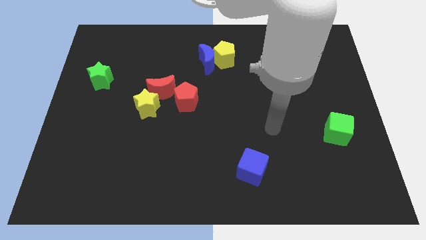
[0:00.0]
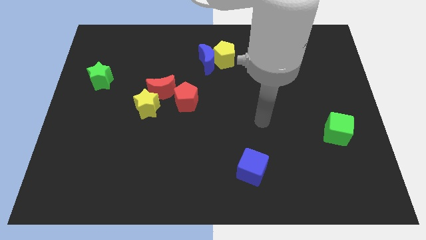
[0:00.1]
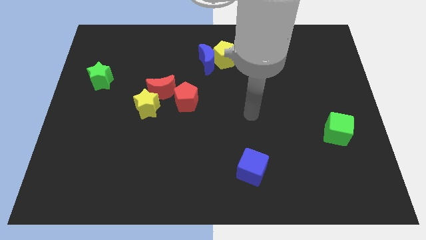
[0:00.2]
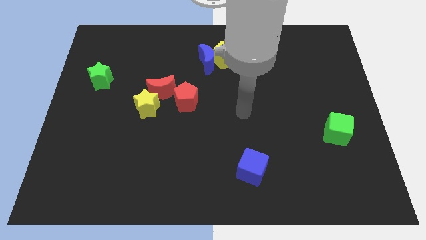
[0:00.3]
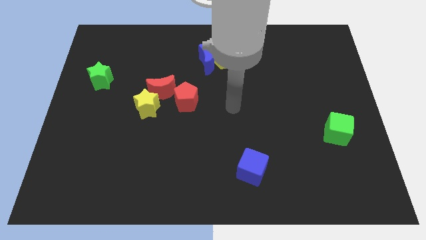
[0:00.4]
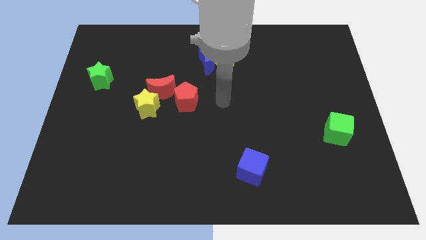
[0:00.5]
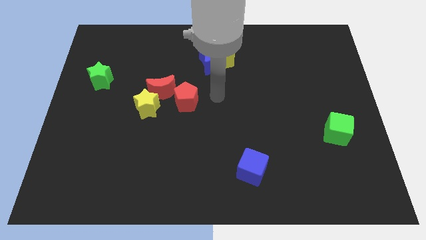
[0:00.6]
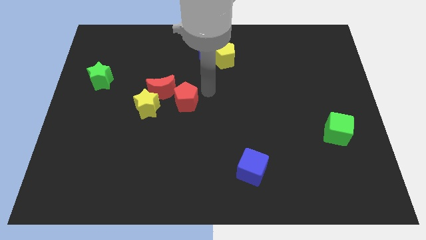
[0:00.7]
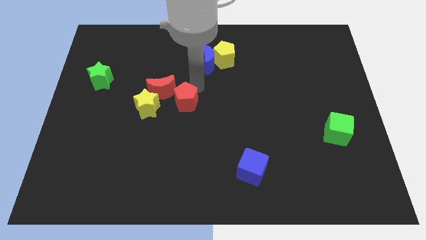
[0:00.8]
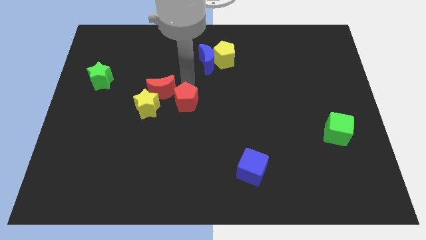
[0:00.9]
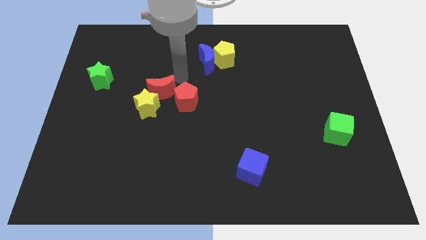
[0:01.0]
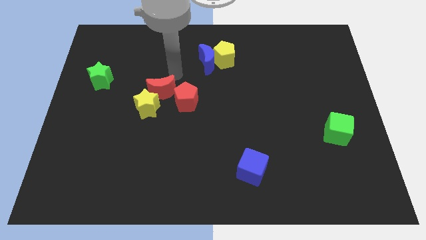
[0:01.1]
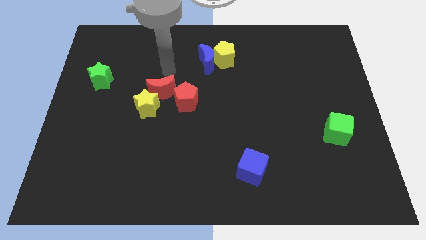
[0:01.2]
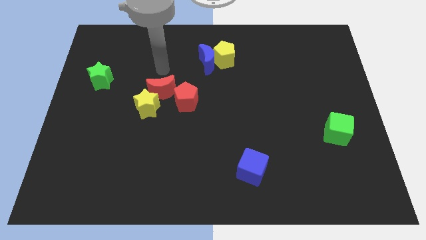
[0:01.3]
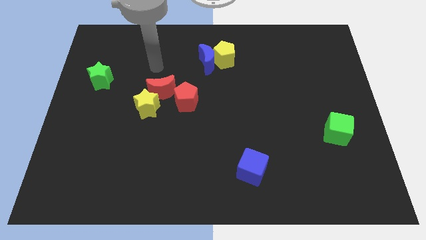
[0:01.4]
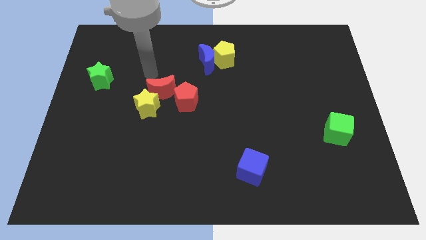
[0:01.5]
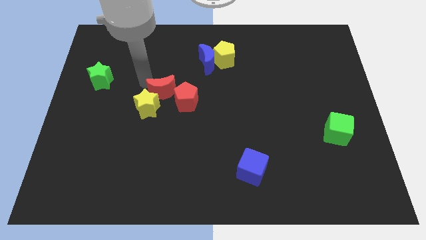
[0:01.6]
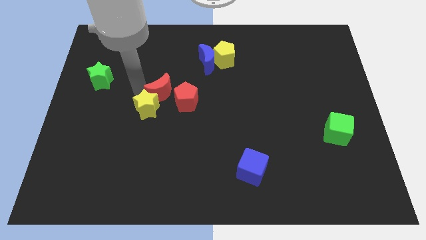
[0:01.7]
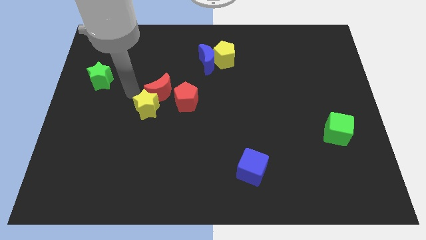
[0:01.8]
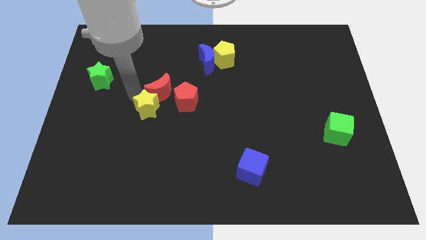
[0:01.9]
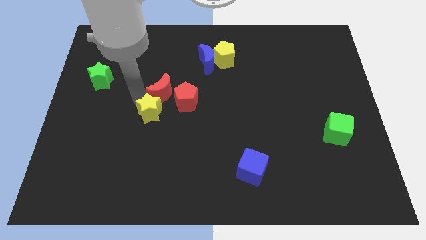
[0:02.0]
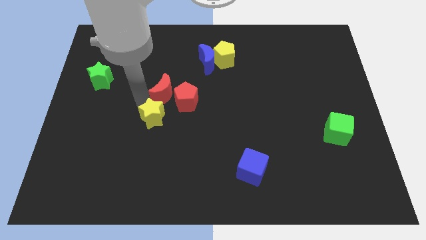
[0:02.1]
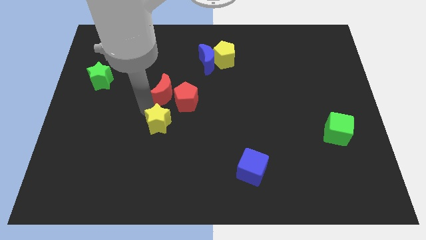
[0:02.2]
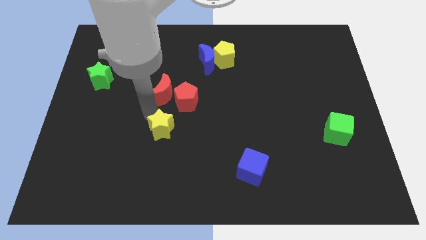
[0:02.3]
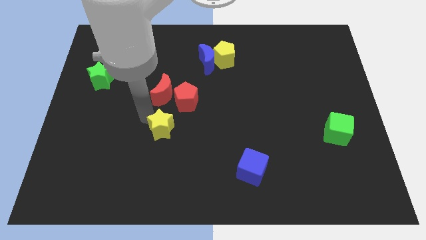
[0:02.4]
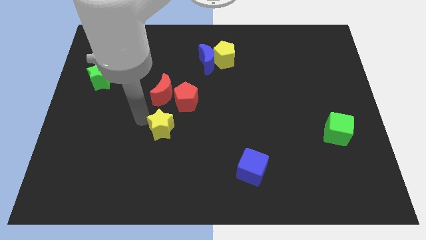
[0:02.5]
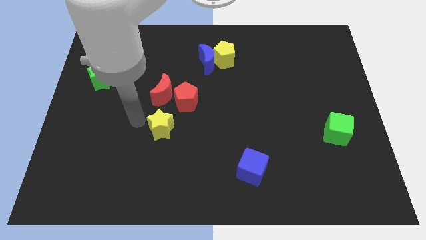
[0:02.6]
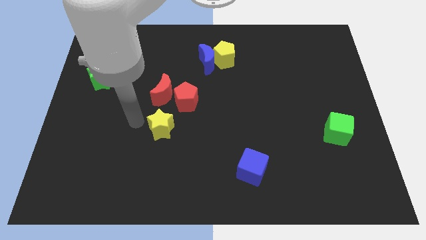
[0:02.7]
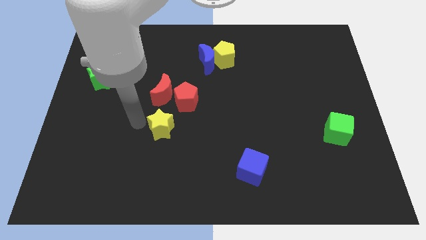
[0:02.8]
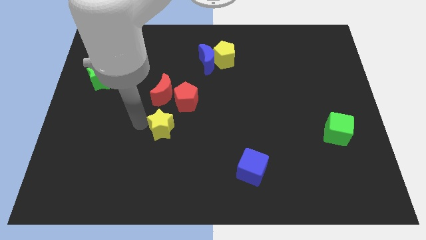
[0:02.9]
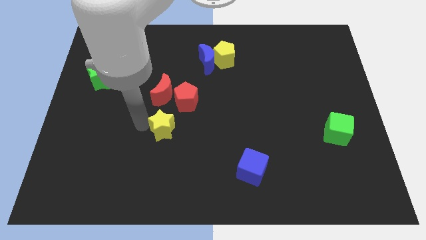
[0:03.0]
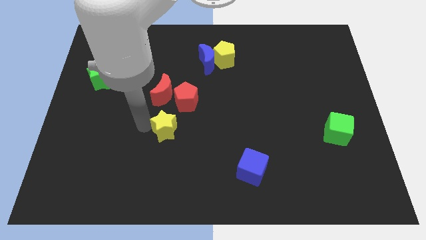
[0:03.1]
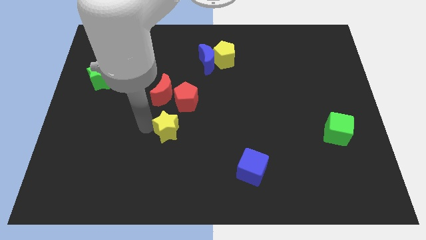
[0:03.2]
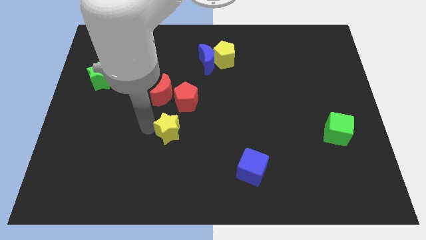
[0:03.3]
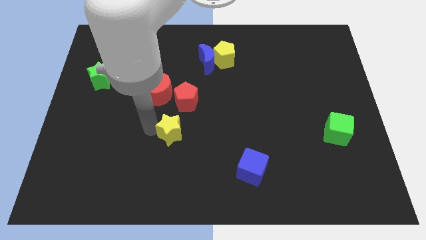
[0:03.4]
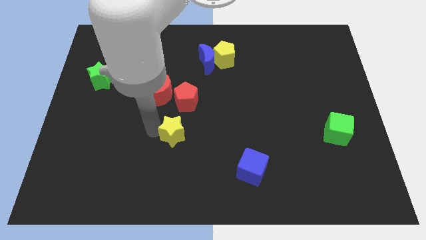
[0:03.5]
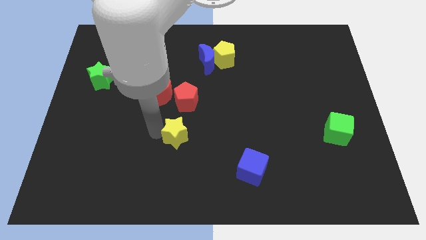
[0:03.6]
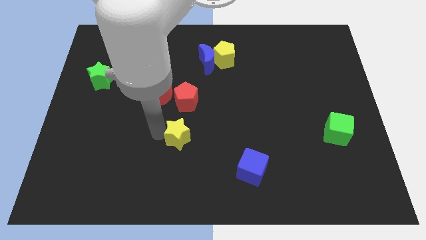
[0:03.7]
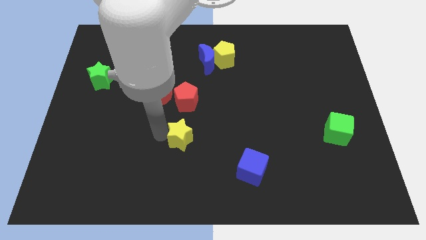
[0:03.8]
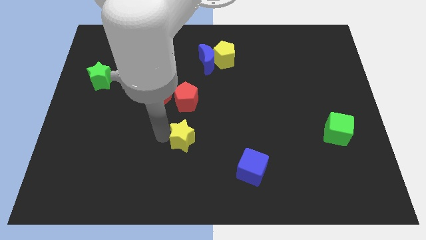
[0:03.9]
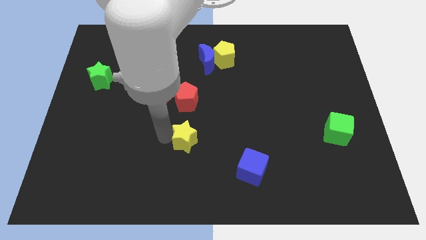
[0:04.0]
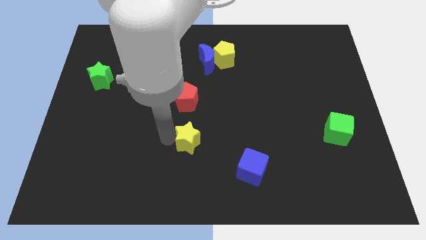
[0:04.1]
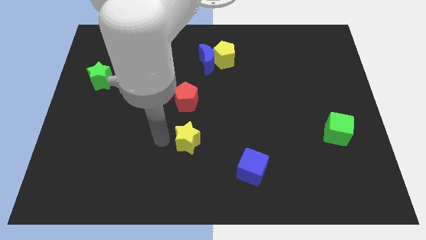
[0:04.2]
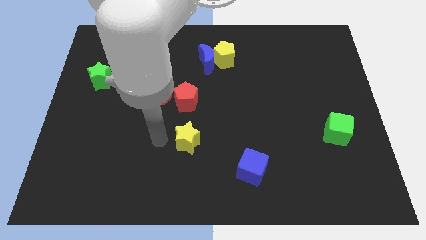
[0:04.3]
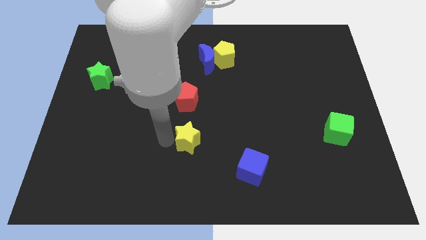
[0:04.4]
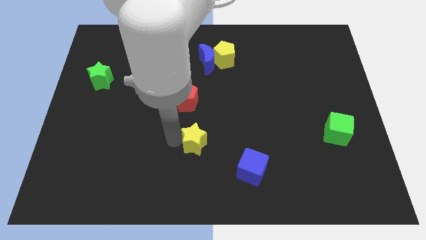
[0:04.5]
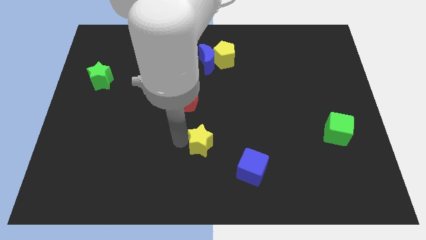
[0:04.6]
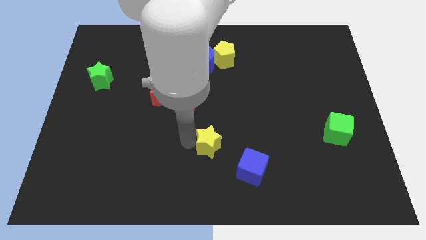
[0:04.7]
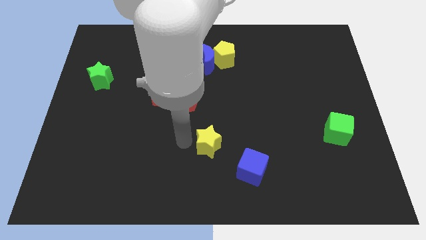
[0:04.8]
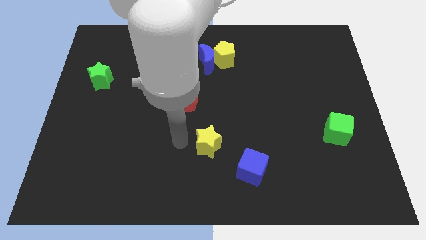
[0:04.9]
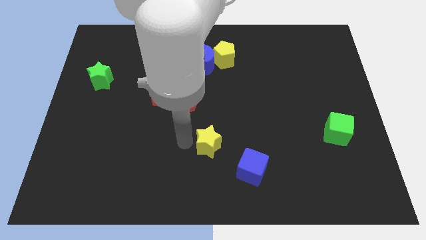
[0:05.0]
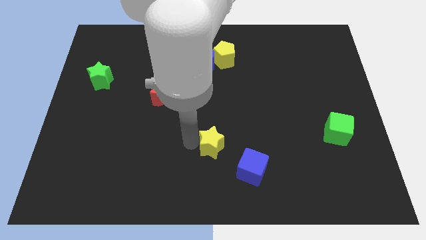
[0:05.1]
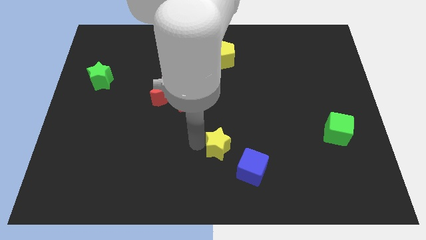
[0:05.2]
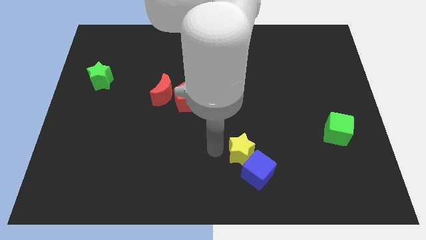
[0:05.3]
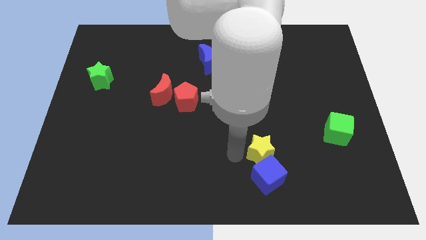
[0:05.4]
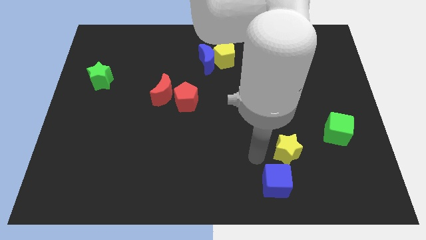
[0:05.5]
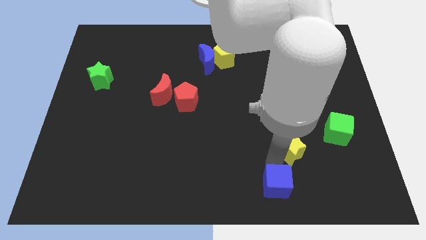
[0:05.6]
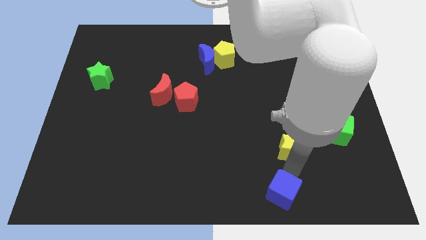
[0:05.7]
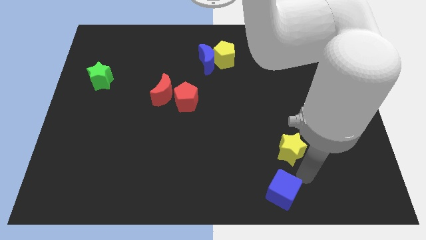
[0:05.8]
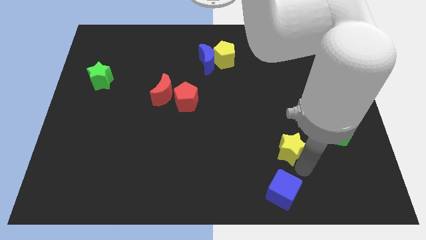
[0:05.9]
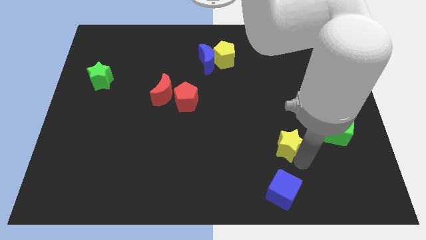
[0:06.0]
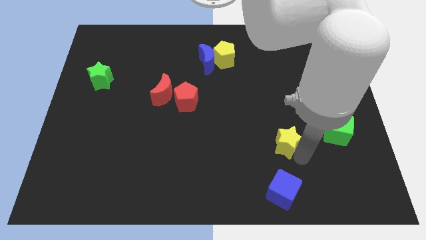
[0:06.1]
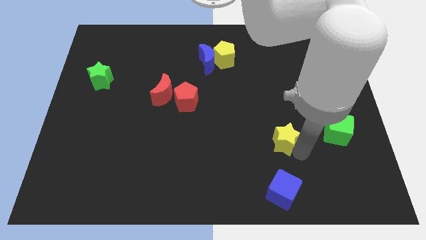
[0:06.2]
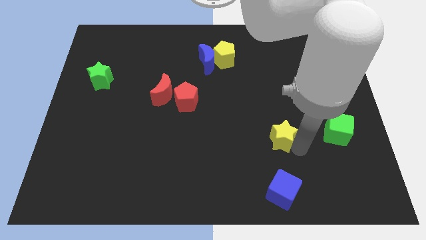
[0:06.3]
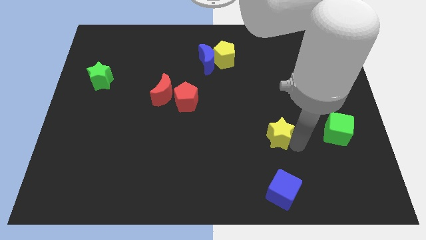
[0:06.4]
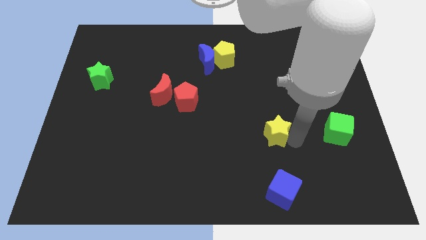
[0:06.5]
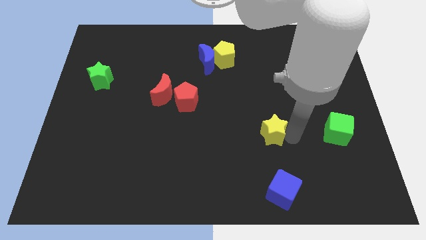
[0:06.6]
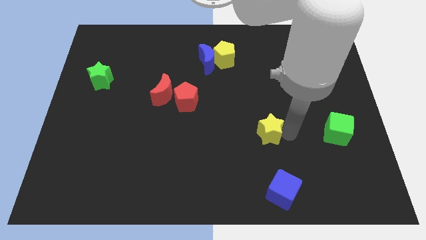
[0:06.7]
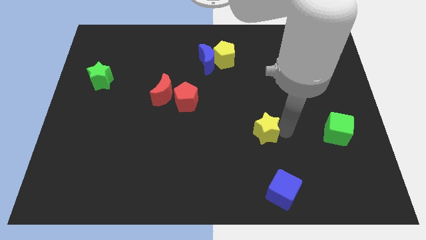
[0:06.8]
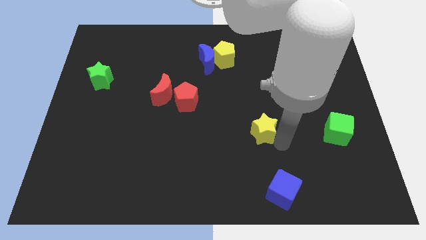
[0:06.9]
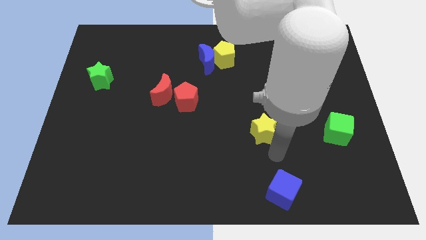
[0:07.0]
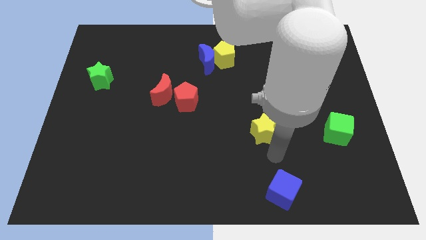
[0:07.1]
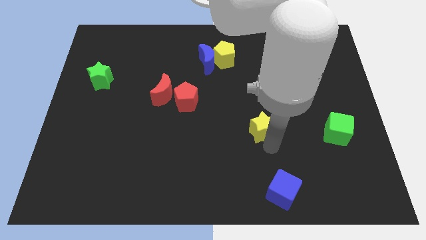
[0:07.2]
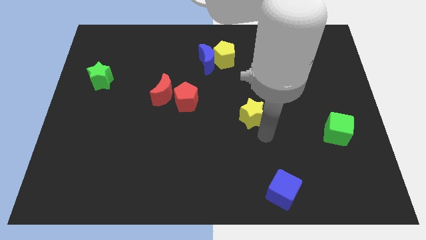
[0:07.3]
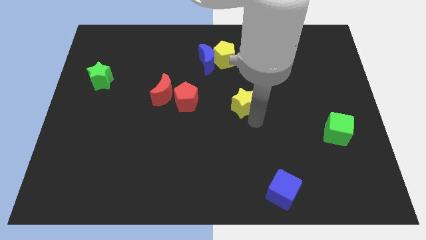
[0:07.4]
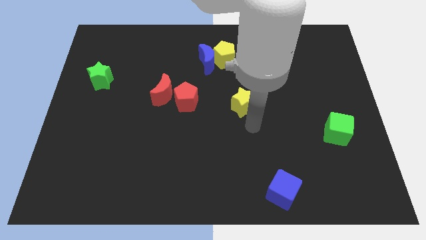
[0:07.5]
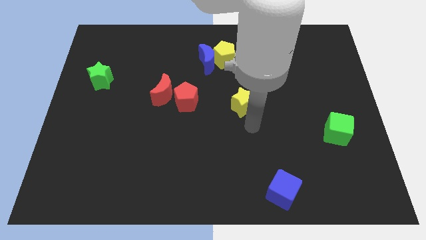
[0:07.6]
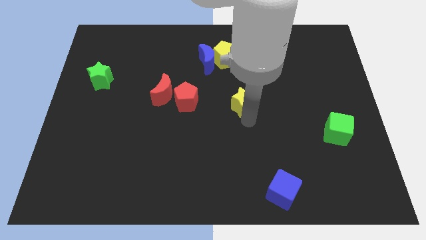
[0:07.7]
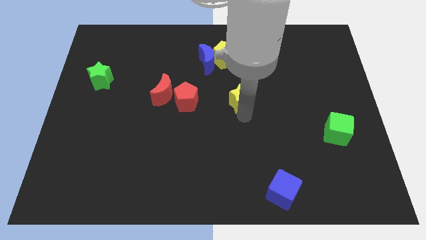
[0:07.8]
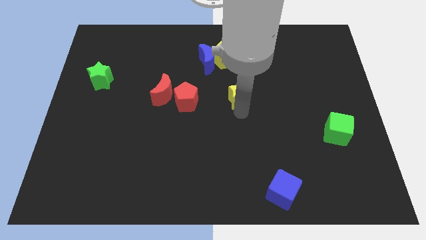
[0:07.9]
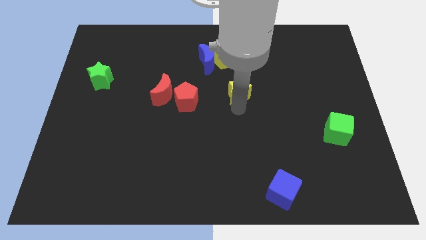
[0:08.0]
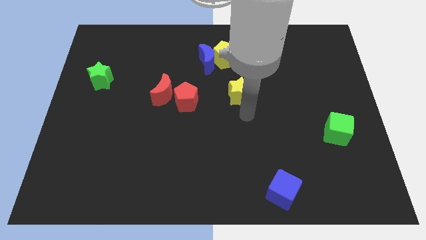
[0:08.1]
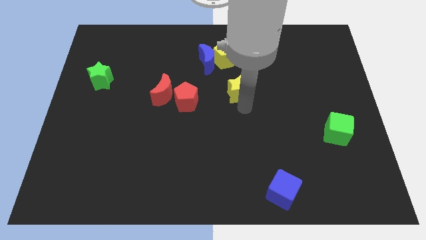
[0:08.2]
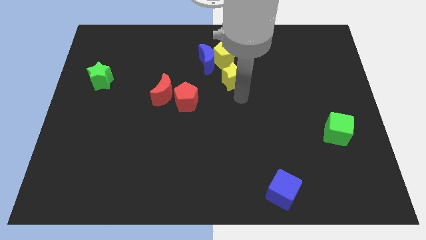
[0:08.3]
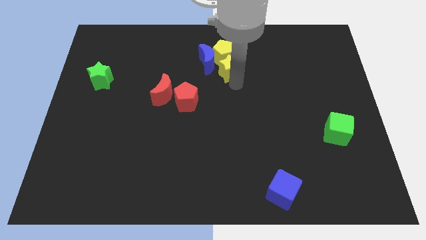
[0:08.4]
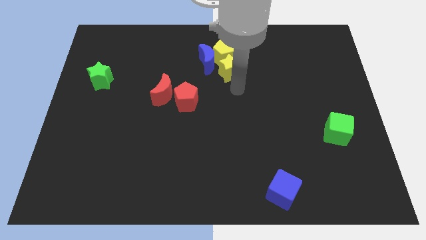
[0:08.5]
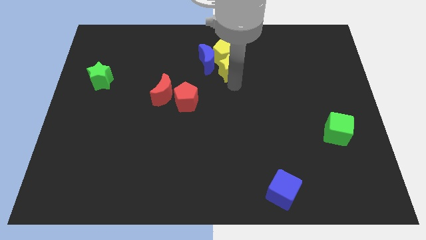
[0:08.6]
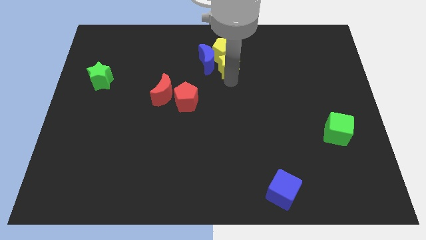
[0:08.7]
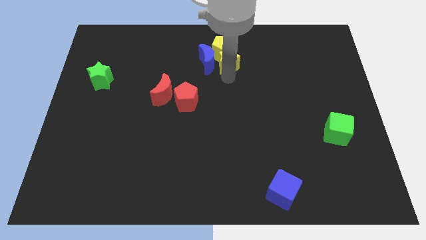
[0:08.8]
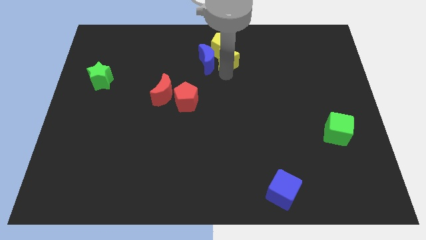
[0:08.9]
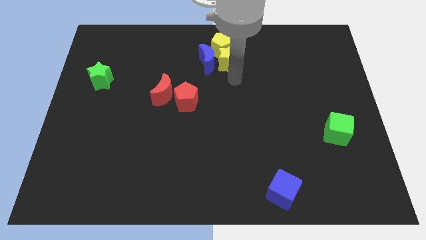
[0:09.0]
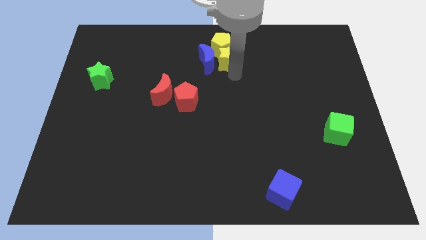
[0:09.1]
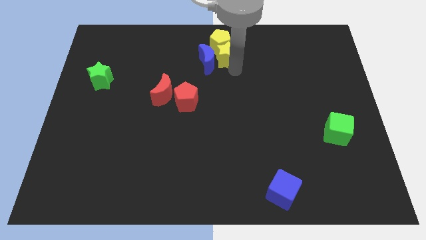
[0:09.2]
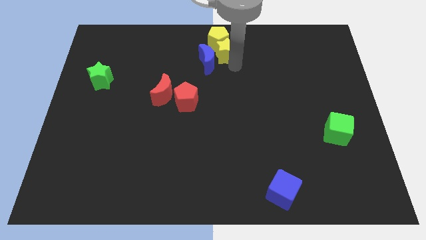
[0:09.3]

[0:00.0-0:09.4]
push the yellow star to the top
